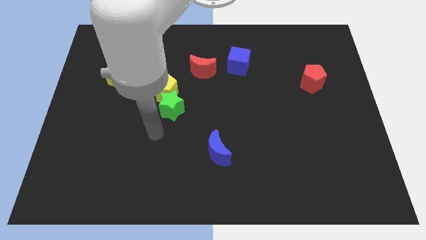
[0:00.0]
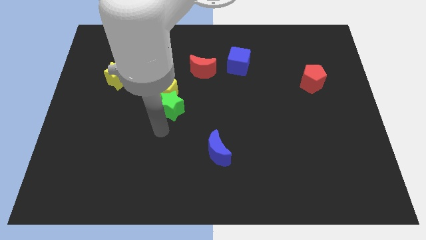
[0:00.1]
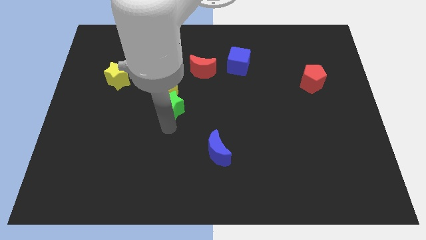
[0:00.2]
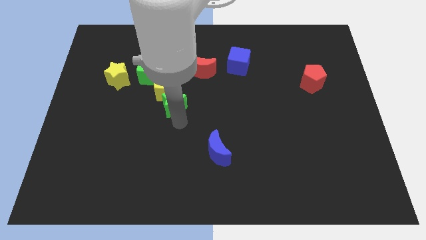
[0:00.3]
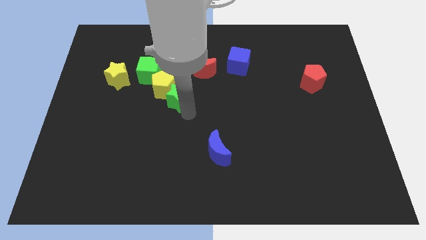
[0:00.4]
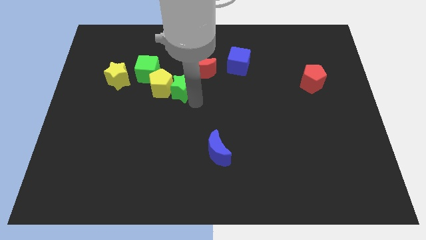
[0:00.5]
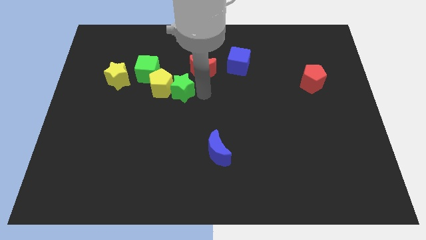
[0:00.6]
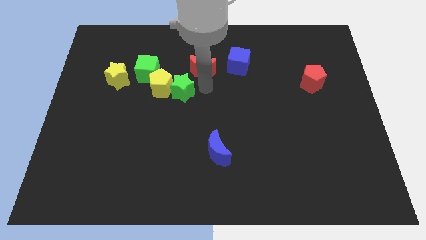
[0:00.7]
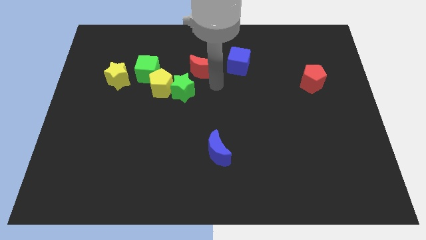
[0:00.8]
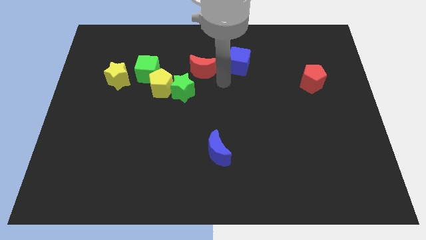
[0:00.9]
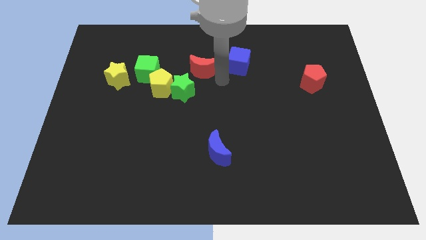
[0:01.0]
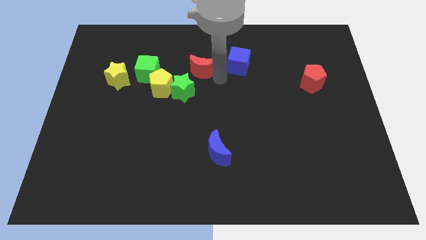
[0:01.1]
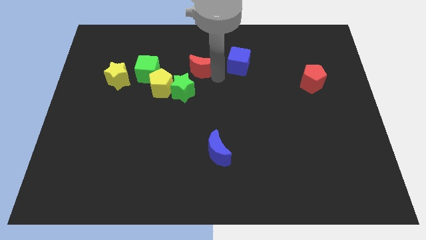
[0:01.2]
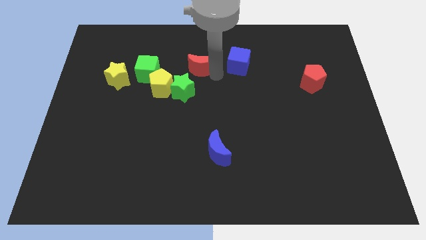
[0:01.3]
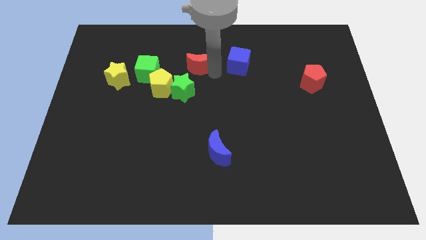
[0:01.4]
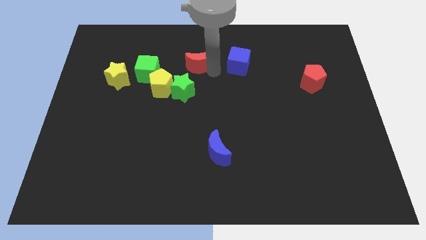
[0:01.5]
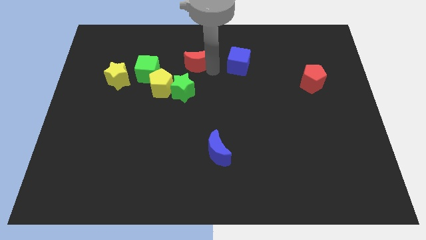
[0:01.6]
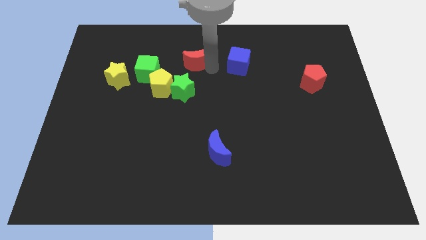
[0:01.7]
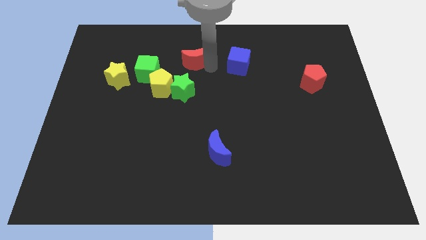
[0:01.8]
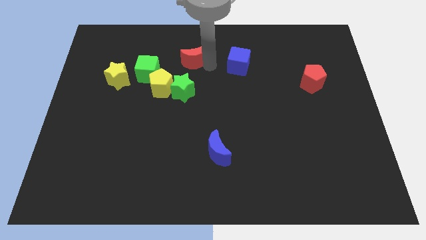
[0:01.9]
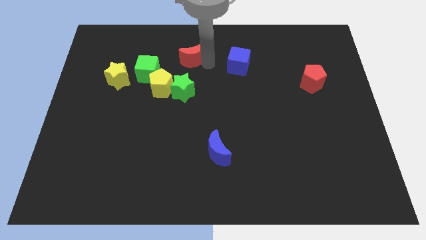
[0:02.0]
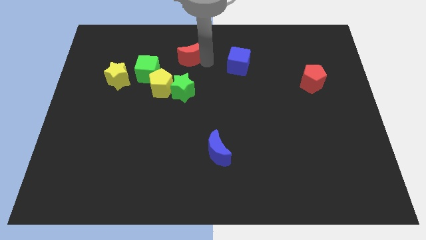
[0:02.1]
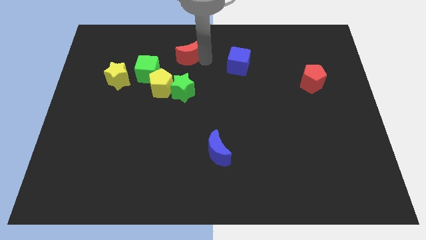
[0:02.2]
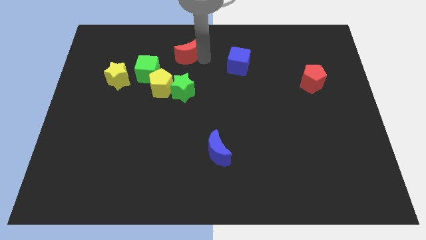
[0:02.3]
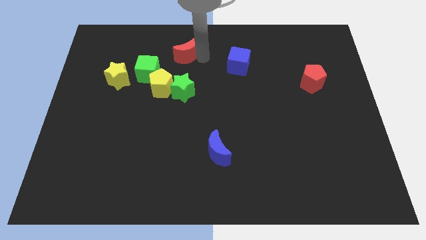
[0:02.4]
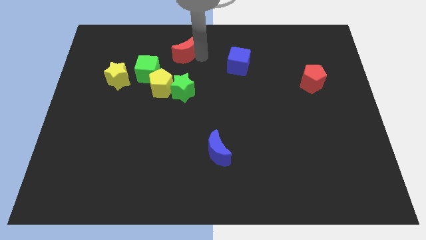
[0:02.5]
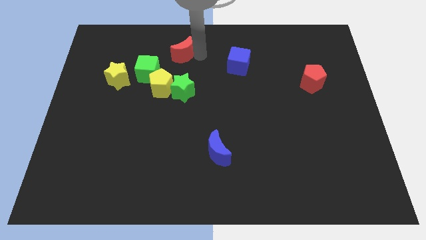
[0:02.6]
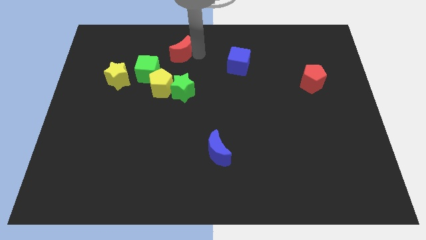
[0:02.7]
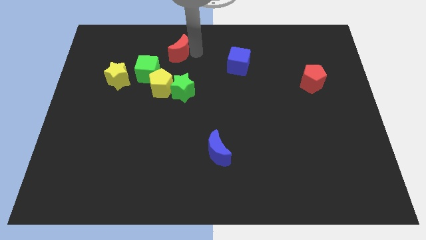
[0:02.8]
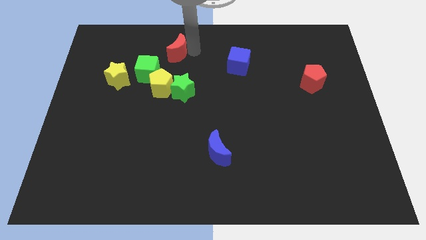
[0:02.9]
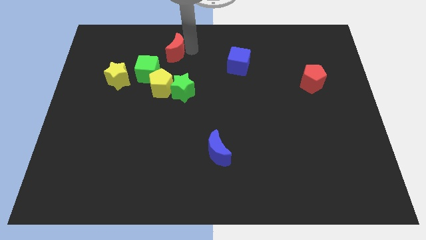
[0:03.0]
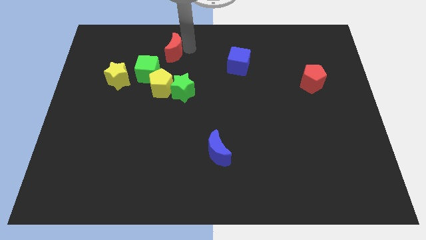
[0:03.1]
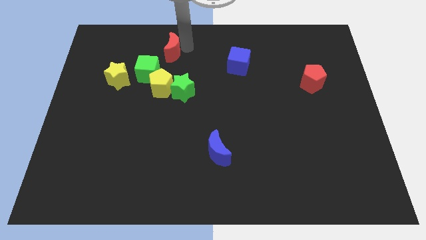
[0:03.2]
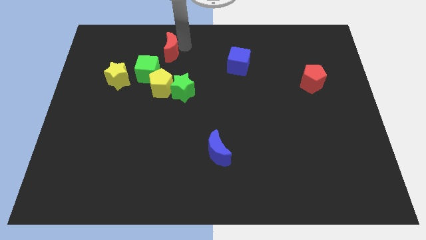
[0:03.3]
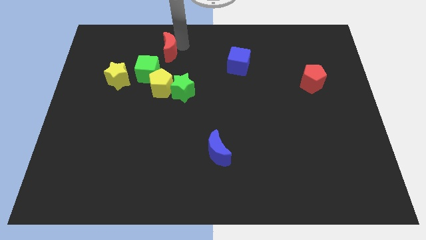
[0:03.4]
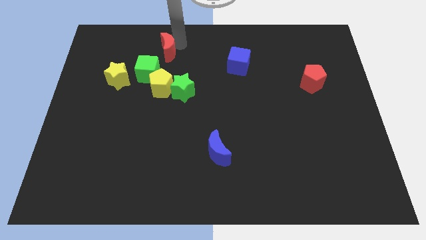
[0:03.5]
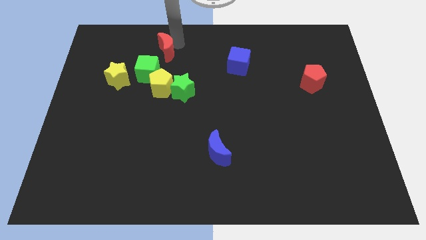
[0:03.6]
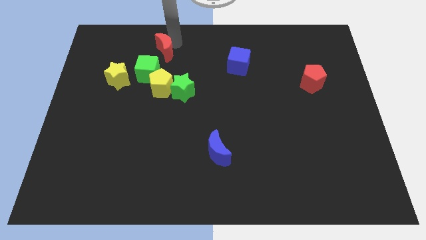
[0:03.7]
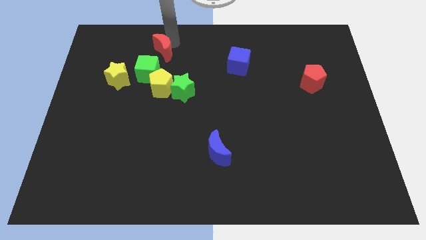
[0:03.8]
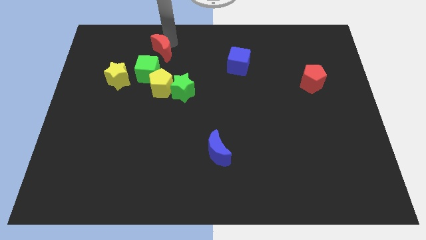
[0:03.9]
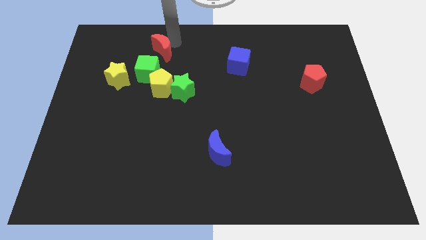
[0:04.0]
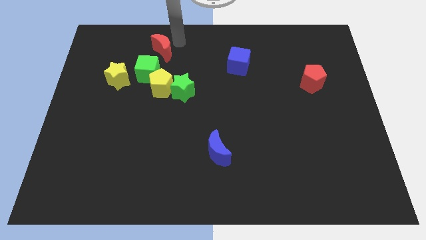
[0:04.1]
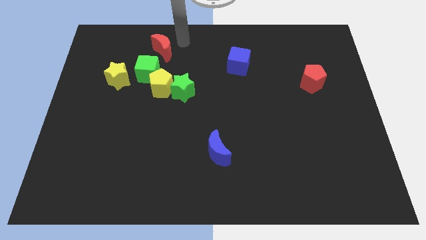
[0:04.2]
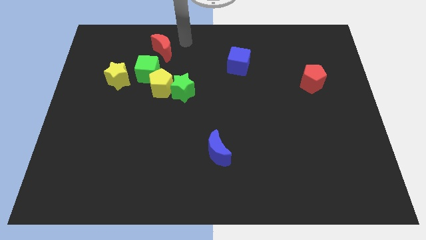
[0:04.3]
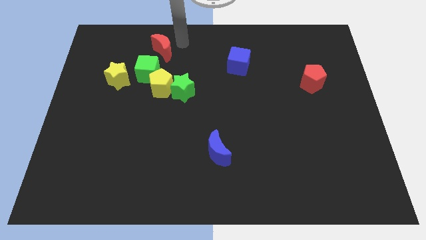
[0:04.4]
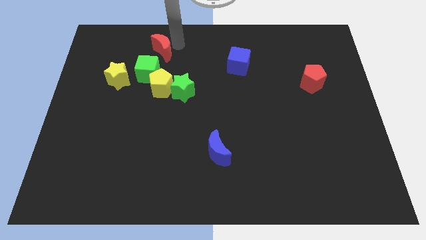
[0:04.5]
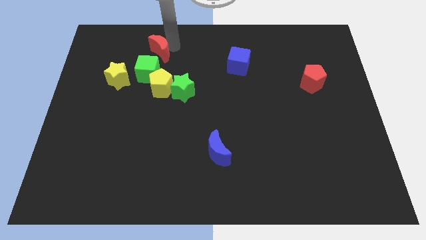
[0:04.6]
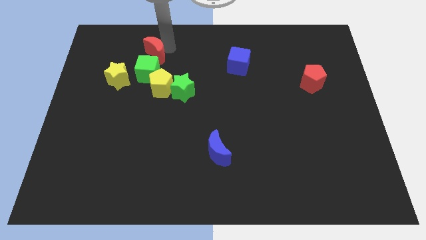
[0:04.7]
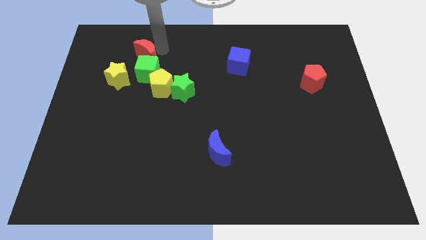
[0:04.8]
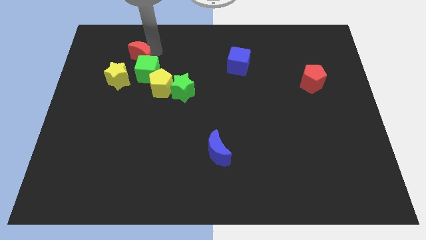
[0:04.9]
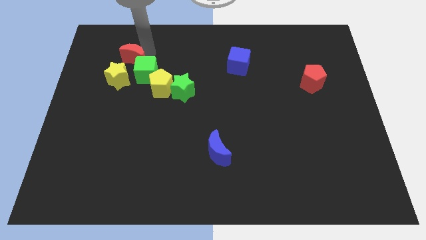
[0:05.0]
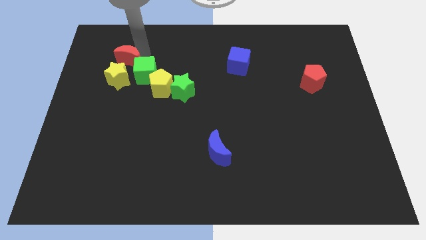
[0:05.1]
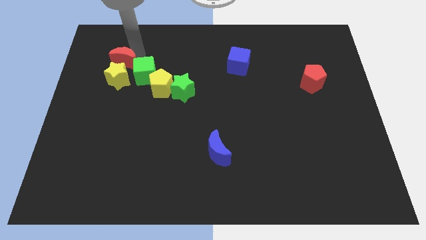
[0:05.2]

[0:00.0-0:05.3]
move the red moon towards the yellow star

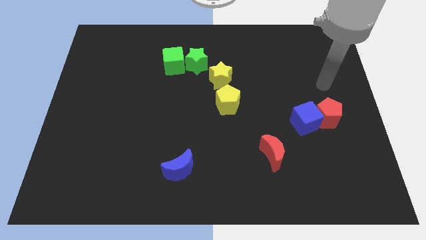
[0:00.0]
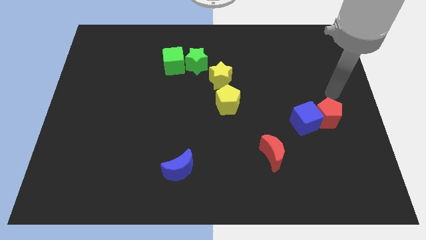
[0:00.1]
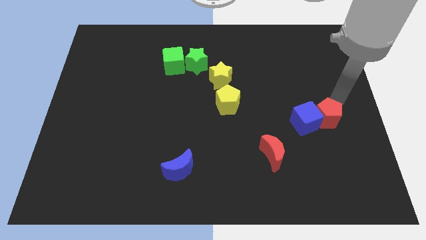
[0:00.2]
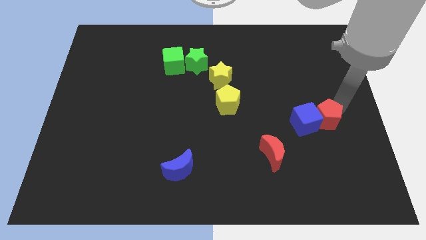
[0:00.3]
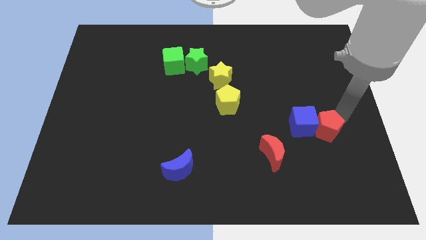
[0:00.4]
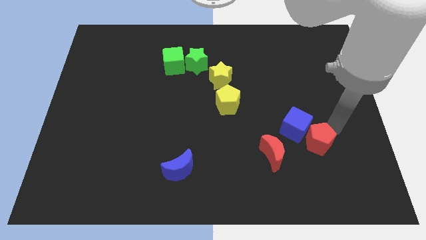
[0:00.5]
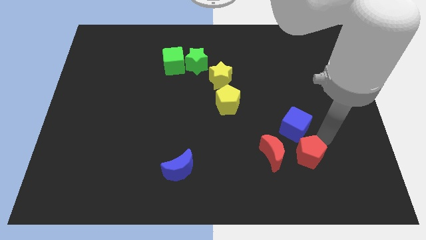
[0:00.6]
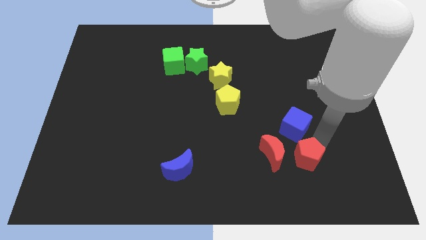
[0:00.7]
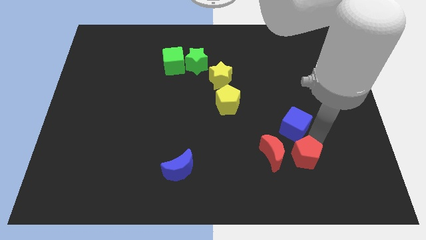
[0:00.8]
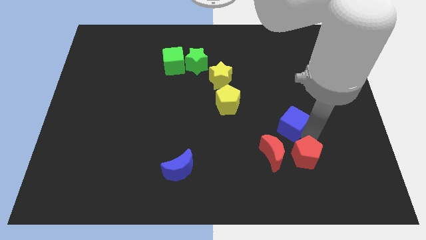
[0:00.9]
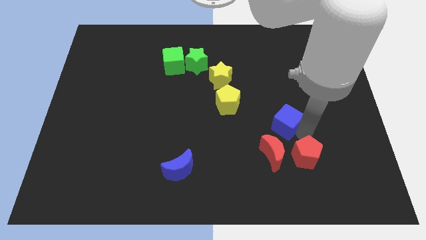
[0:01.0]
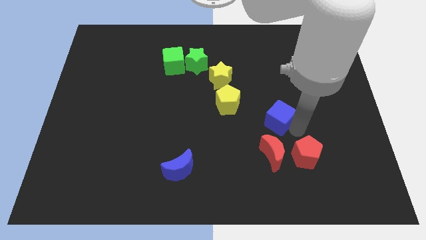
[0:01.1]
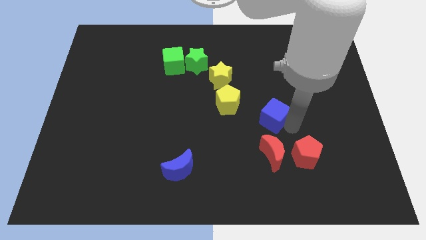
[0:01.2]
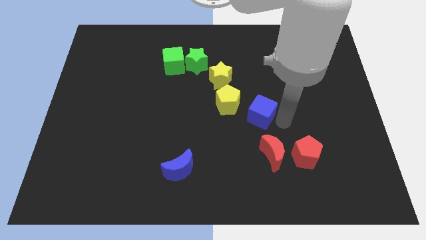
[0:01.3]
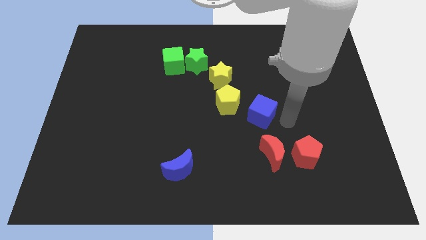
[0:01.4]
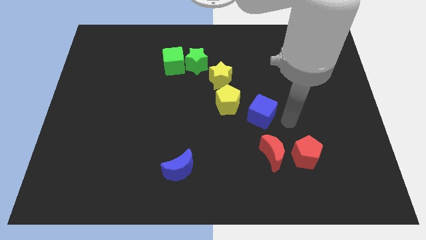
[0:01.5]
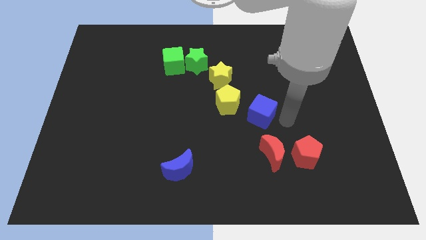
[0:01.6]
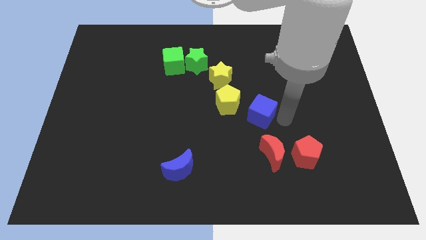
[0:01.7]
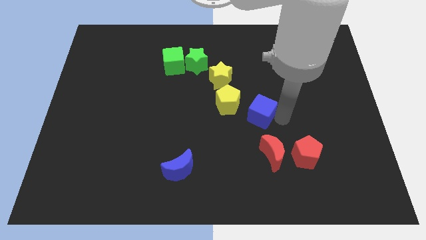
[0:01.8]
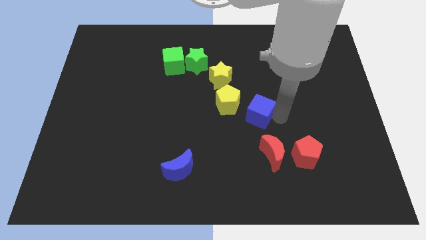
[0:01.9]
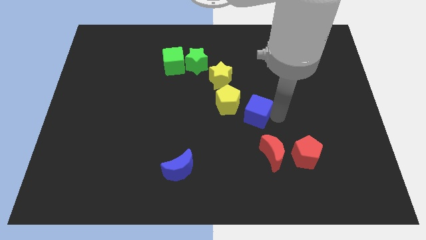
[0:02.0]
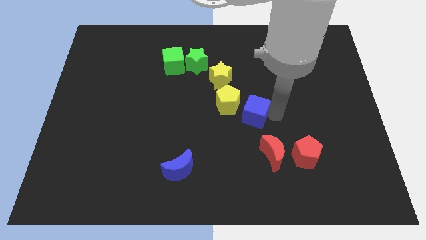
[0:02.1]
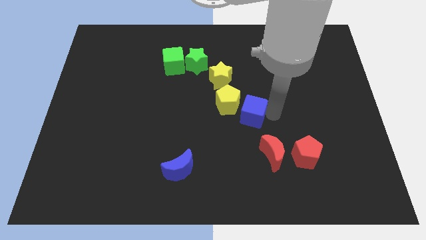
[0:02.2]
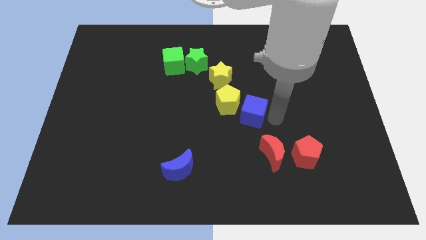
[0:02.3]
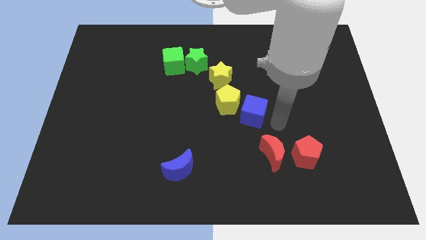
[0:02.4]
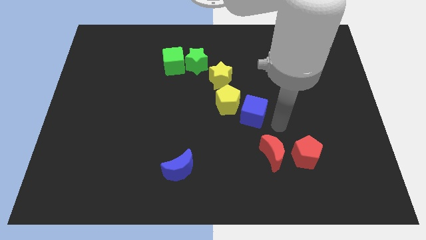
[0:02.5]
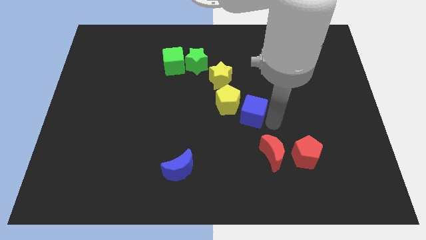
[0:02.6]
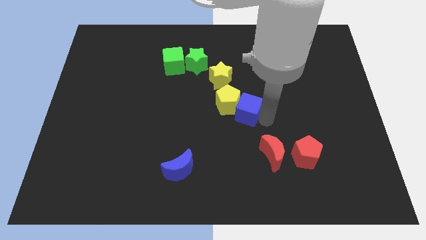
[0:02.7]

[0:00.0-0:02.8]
slide the blue cube towards the yellow pentagon

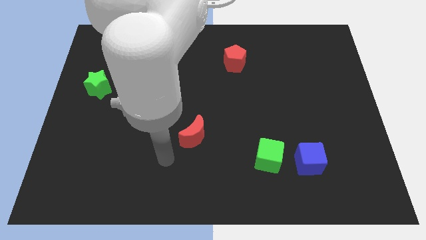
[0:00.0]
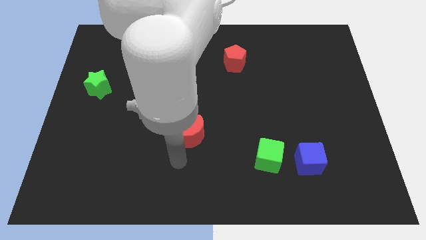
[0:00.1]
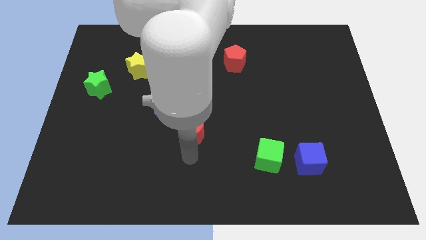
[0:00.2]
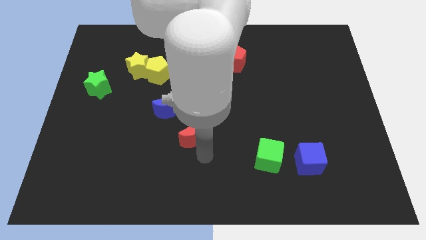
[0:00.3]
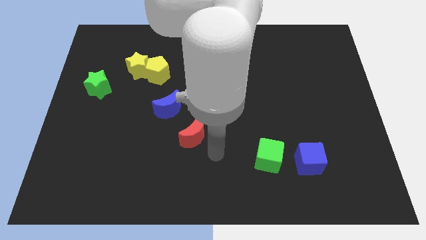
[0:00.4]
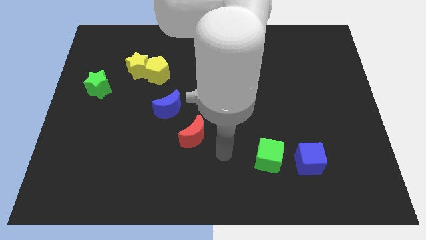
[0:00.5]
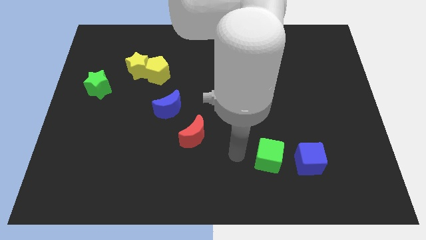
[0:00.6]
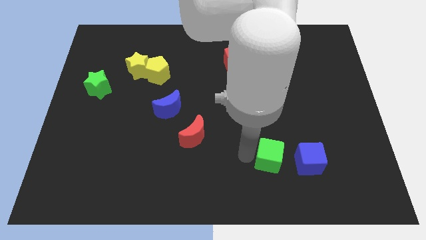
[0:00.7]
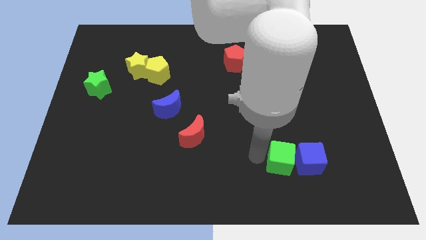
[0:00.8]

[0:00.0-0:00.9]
put the green cube close to the blue cube
